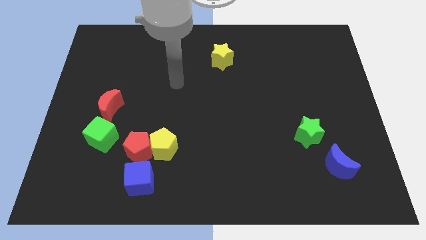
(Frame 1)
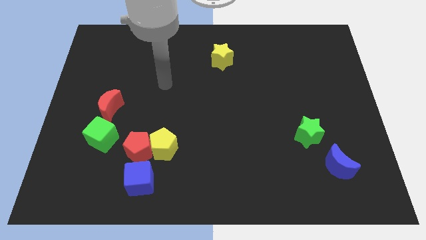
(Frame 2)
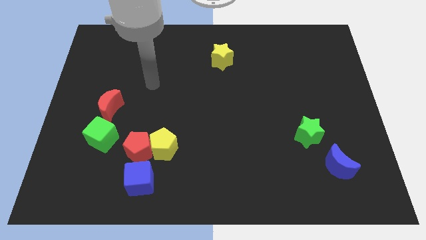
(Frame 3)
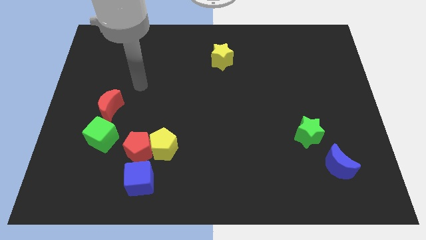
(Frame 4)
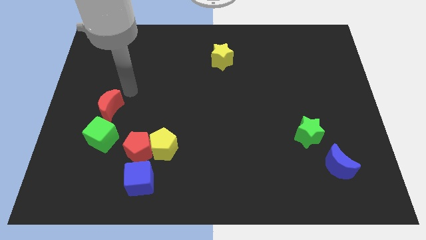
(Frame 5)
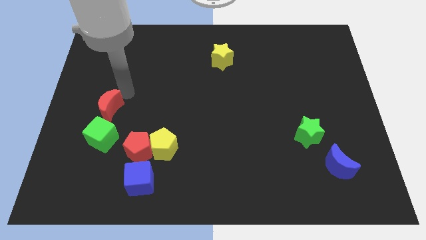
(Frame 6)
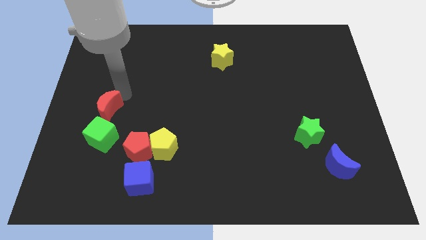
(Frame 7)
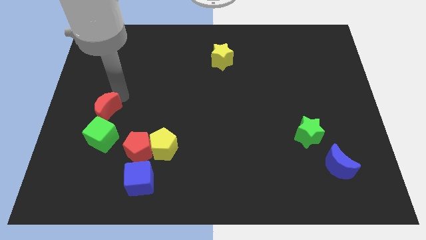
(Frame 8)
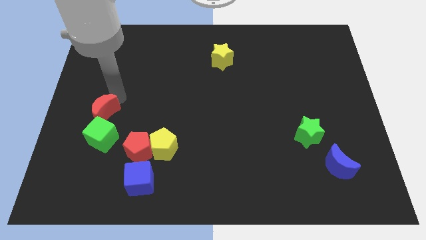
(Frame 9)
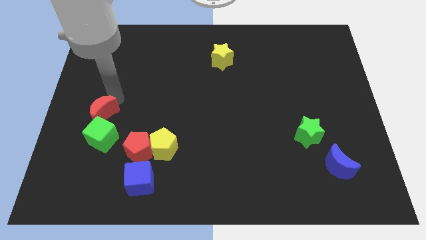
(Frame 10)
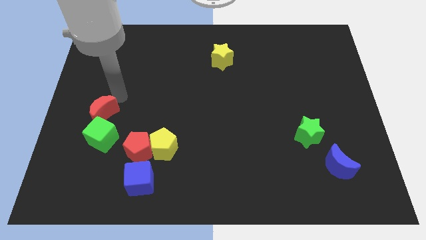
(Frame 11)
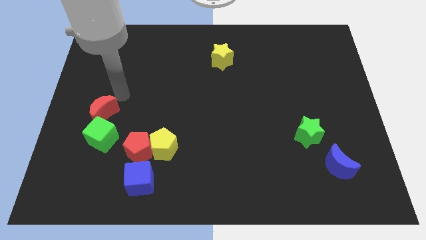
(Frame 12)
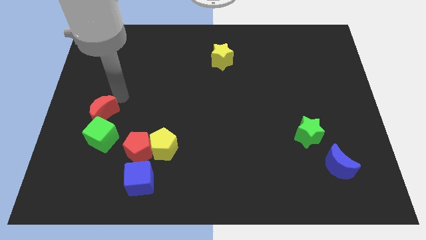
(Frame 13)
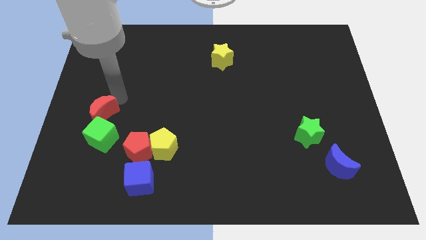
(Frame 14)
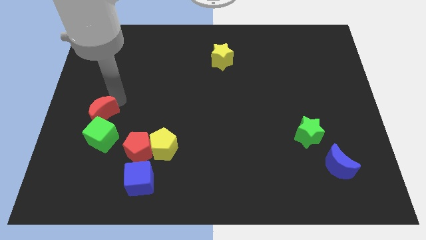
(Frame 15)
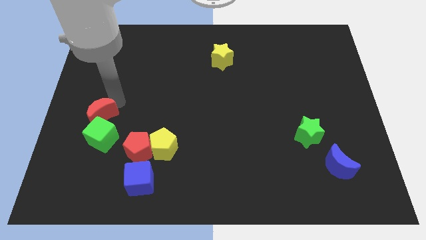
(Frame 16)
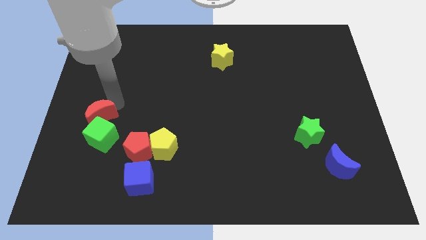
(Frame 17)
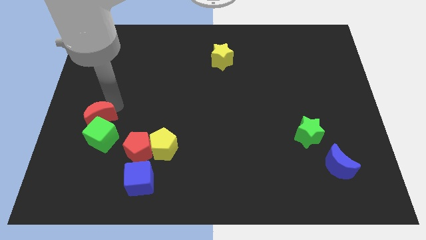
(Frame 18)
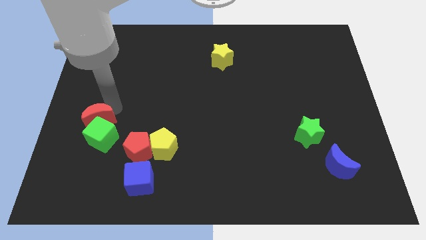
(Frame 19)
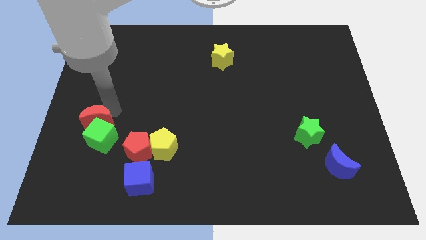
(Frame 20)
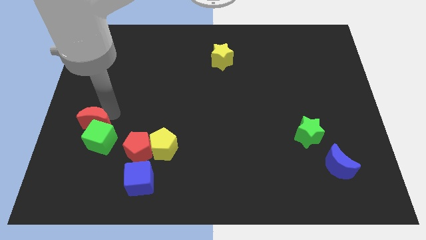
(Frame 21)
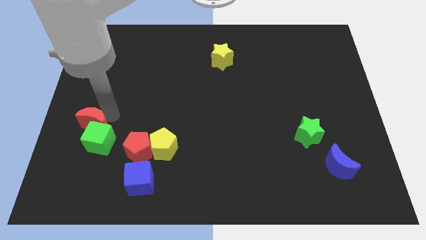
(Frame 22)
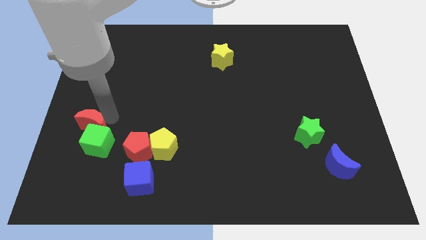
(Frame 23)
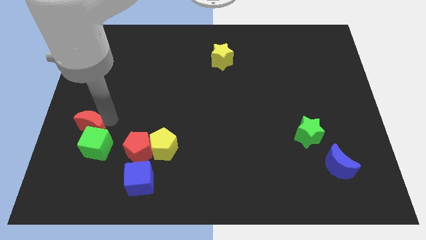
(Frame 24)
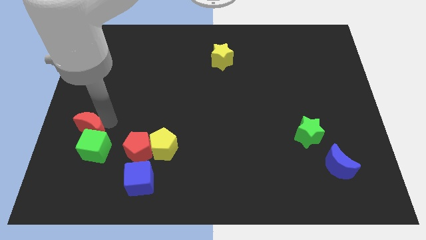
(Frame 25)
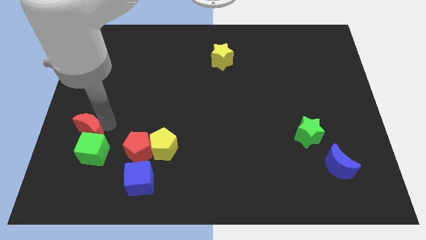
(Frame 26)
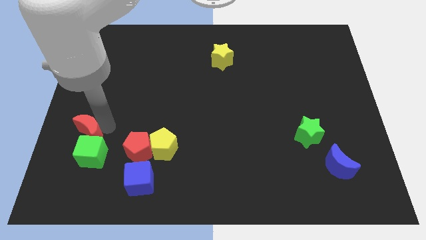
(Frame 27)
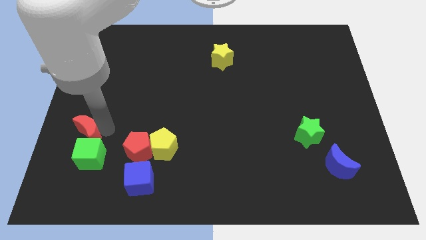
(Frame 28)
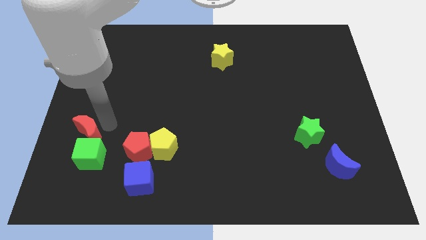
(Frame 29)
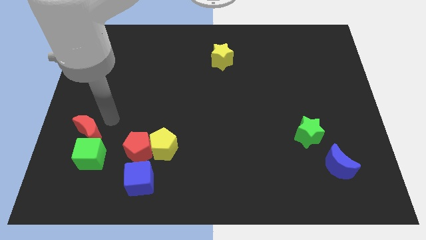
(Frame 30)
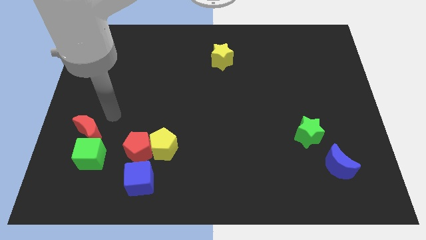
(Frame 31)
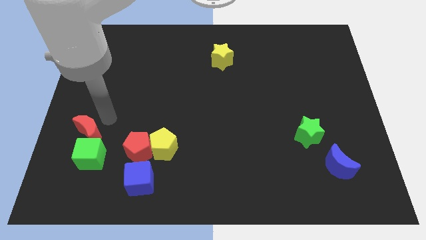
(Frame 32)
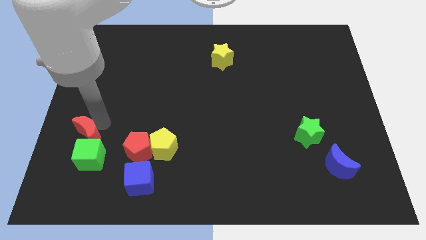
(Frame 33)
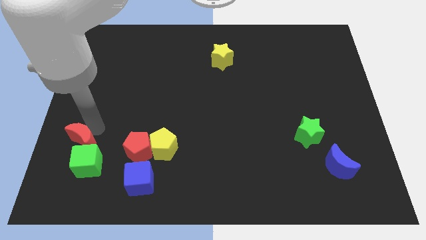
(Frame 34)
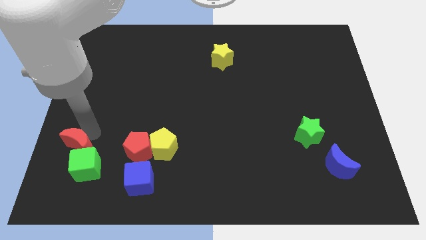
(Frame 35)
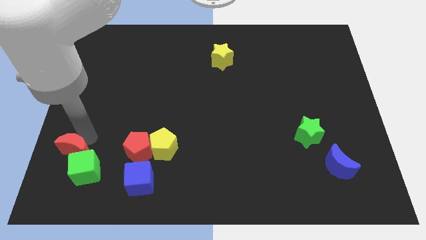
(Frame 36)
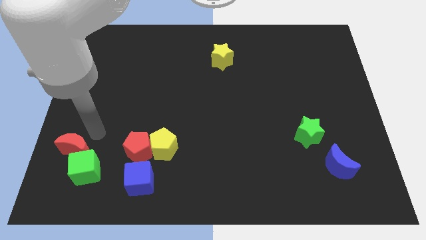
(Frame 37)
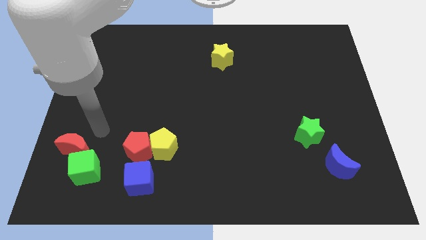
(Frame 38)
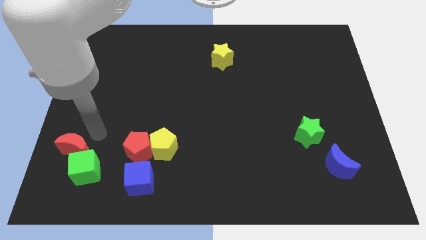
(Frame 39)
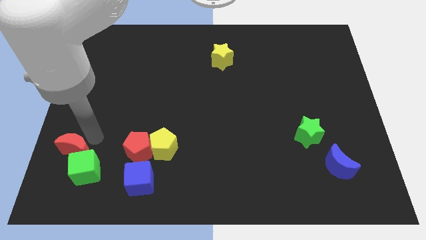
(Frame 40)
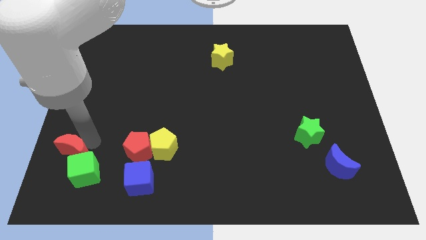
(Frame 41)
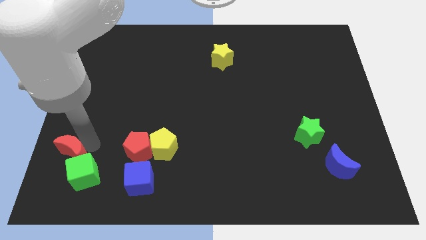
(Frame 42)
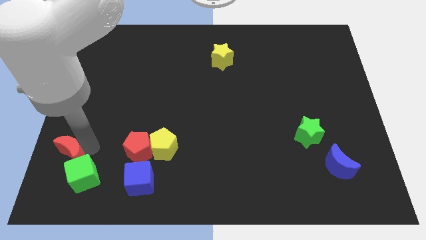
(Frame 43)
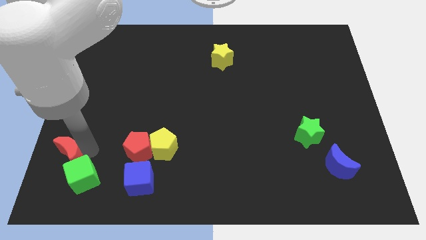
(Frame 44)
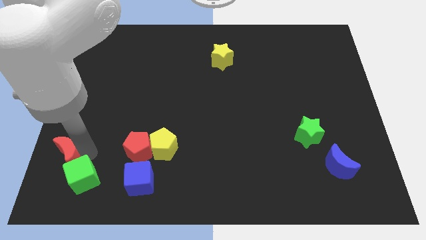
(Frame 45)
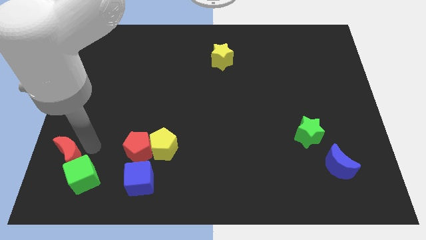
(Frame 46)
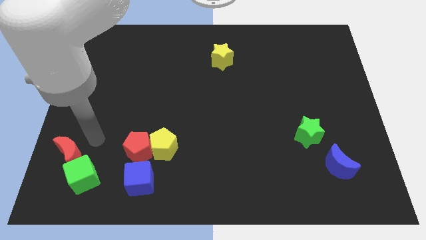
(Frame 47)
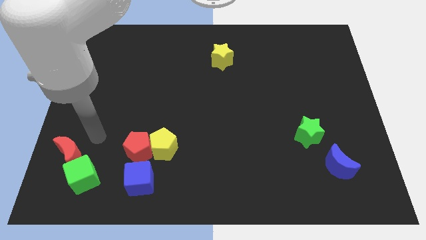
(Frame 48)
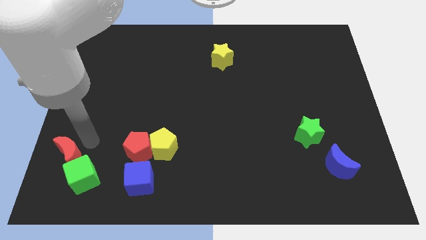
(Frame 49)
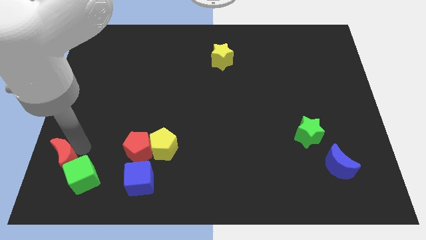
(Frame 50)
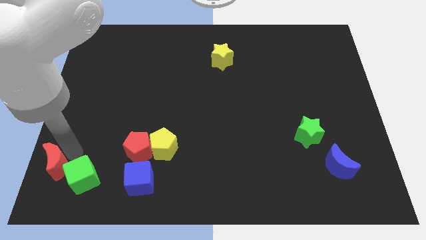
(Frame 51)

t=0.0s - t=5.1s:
slide the red moon to the bottom left

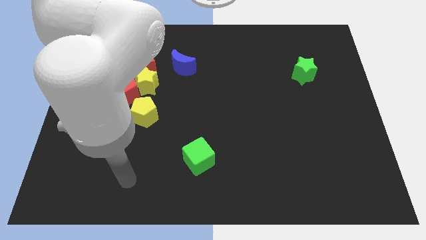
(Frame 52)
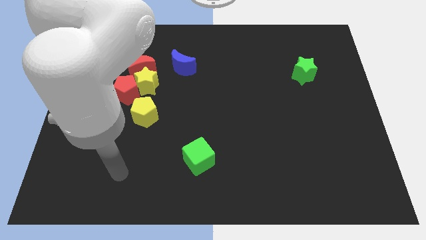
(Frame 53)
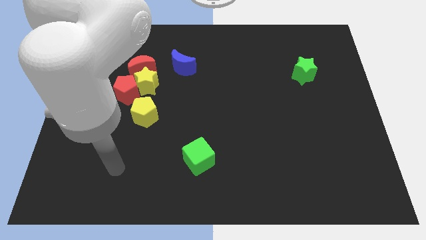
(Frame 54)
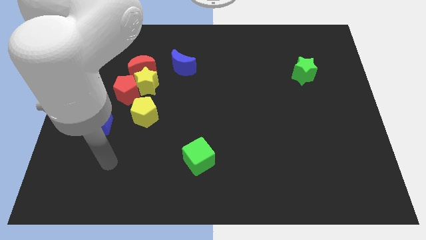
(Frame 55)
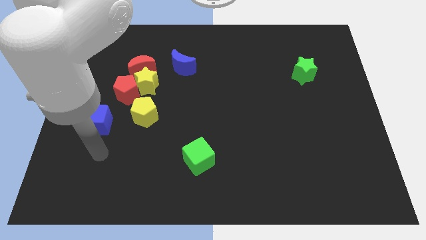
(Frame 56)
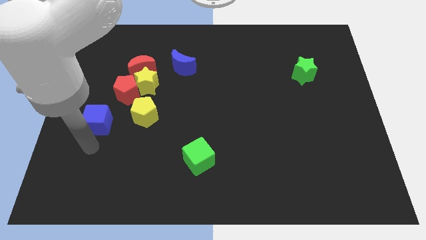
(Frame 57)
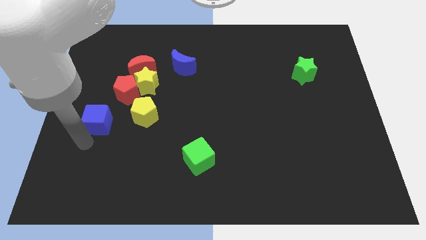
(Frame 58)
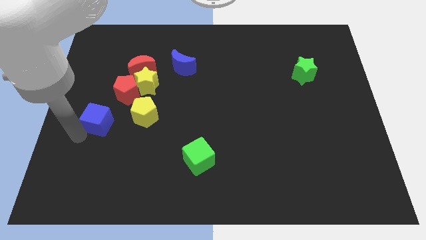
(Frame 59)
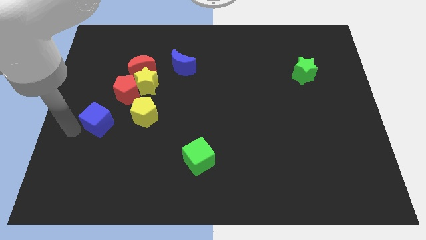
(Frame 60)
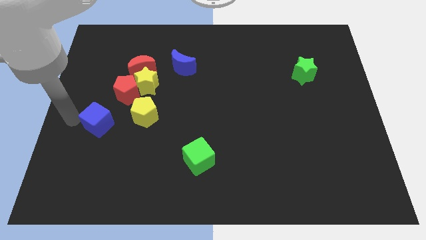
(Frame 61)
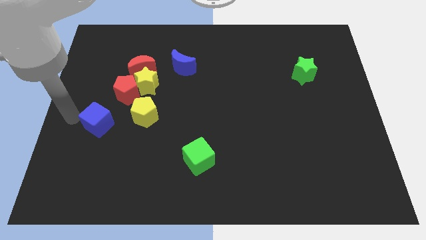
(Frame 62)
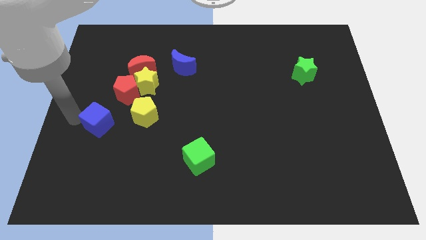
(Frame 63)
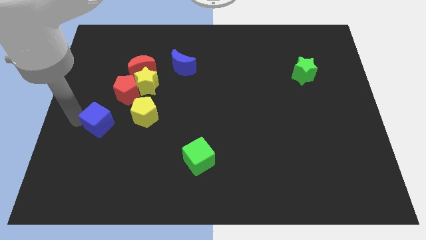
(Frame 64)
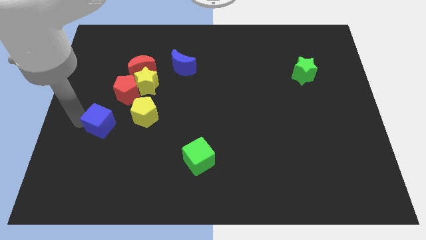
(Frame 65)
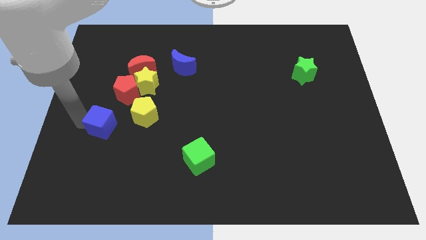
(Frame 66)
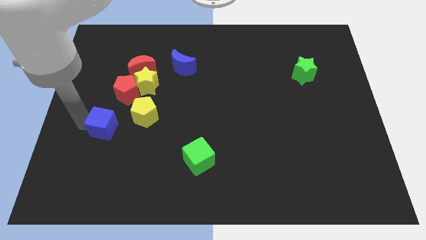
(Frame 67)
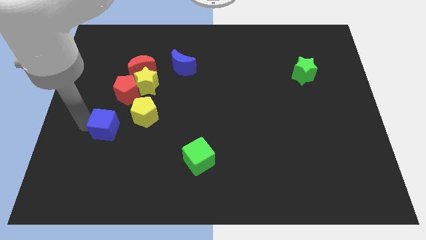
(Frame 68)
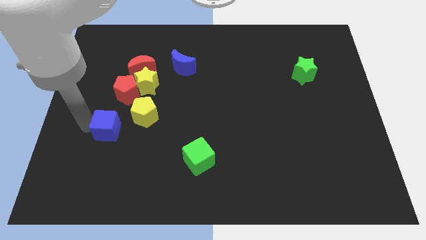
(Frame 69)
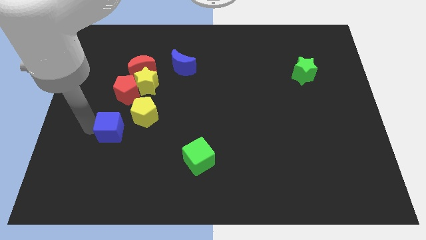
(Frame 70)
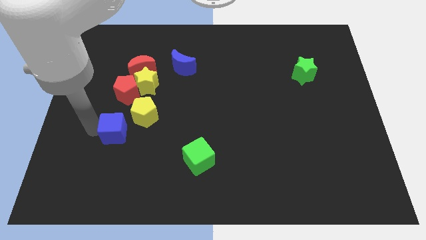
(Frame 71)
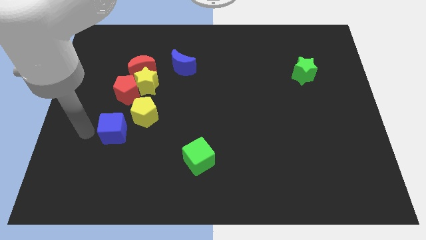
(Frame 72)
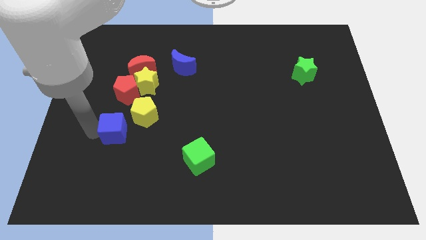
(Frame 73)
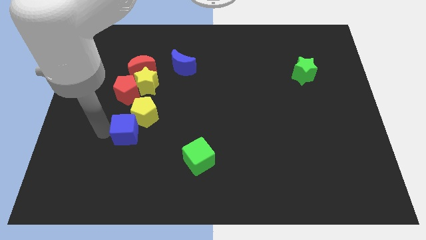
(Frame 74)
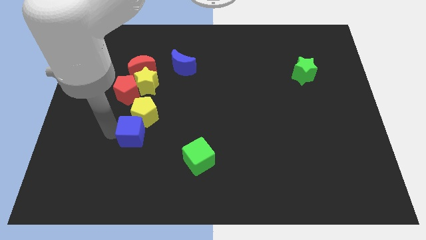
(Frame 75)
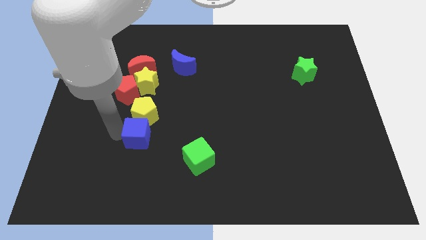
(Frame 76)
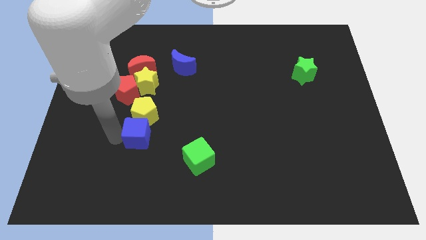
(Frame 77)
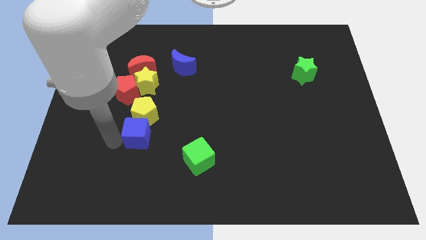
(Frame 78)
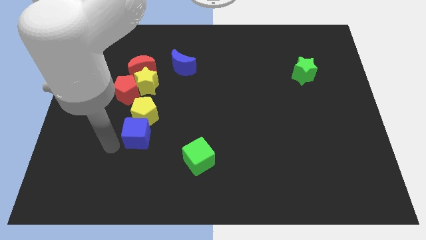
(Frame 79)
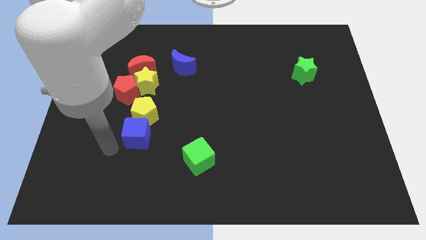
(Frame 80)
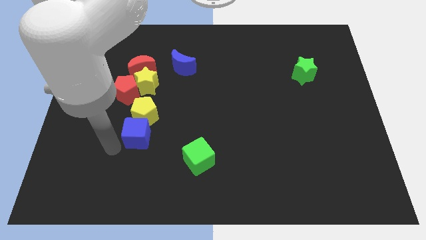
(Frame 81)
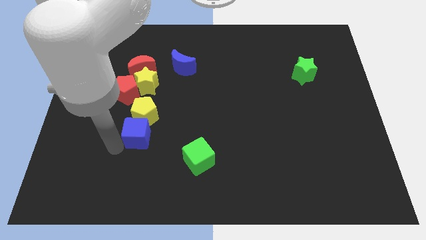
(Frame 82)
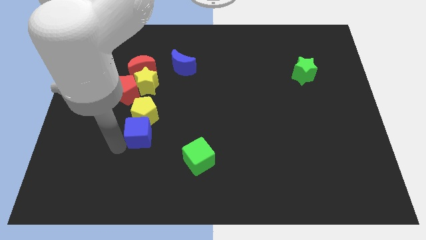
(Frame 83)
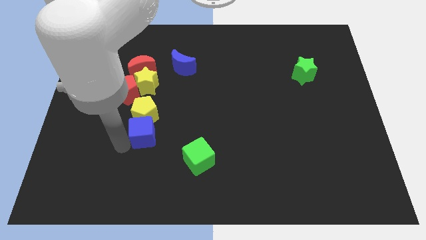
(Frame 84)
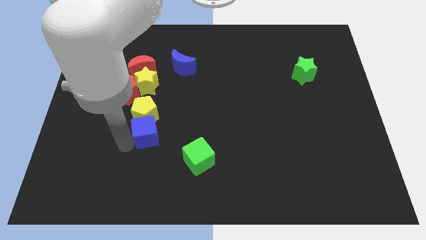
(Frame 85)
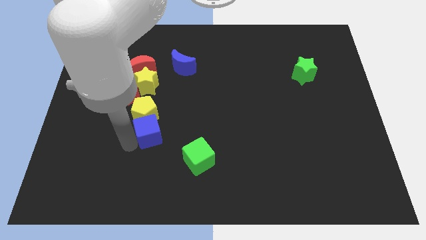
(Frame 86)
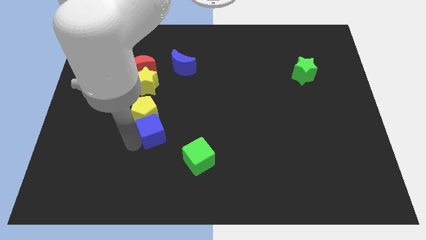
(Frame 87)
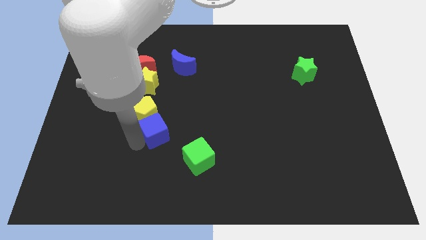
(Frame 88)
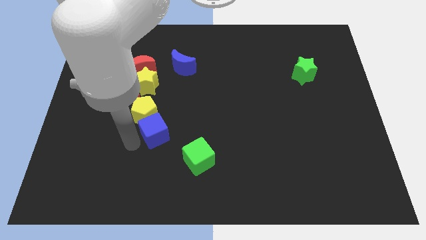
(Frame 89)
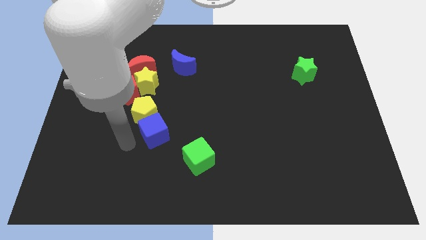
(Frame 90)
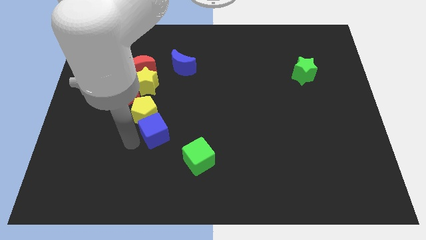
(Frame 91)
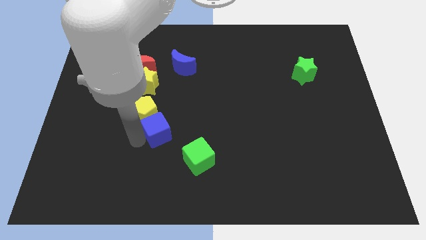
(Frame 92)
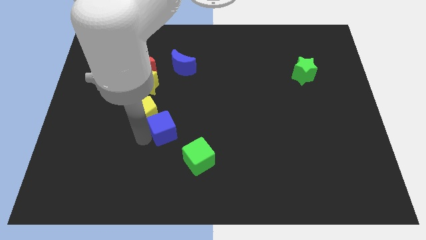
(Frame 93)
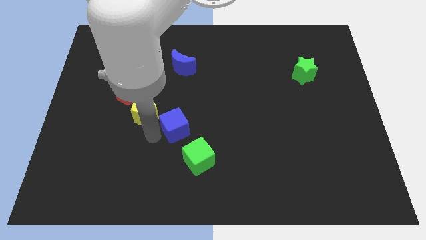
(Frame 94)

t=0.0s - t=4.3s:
put the blue cube to the center of the board
